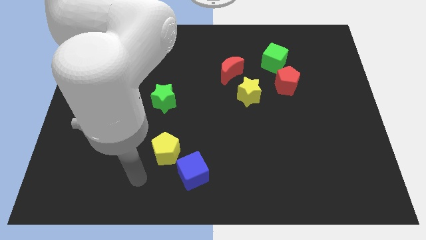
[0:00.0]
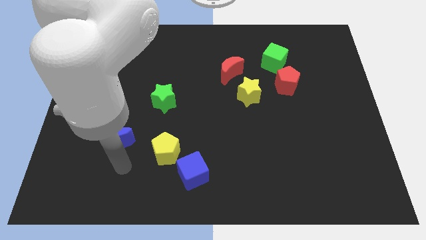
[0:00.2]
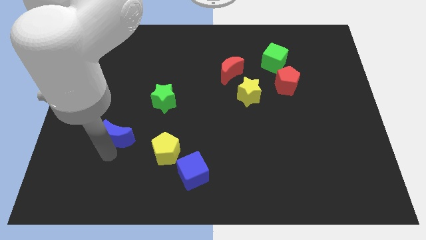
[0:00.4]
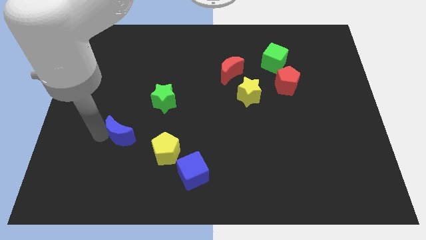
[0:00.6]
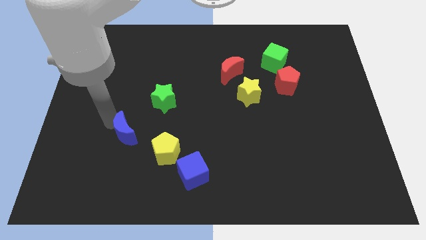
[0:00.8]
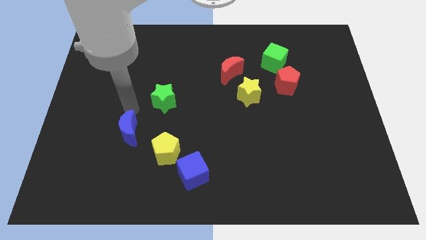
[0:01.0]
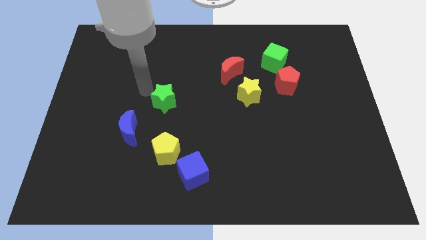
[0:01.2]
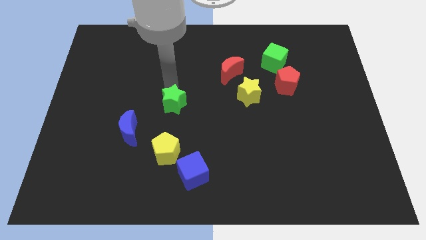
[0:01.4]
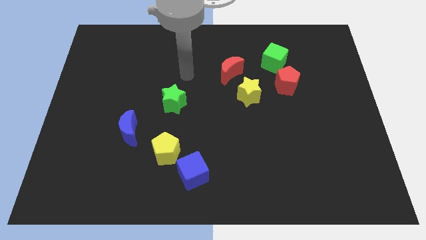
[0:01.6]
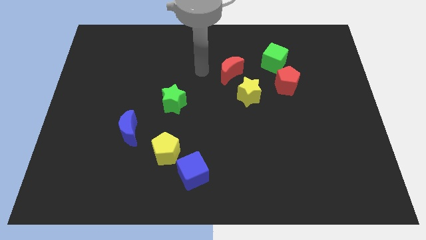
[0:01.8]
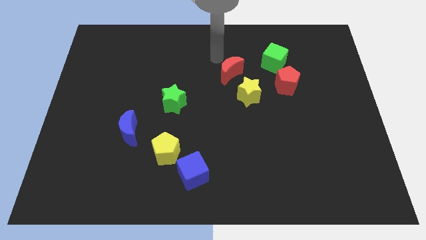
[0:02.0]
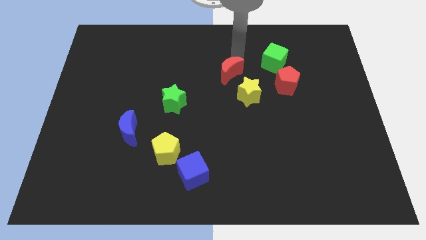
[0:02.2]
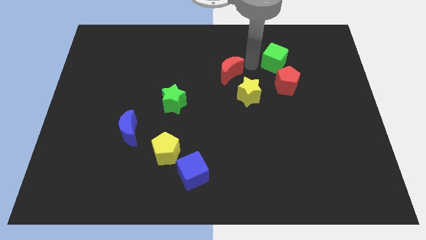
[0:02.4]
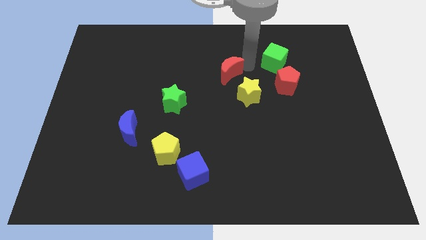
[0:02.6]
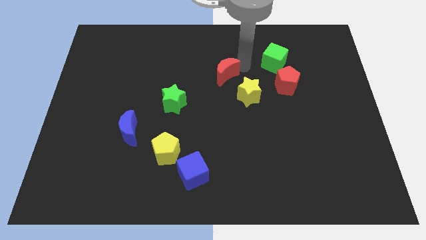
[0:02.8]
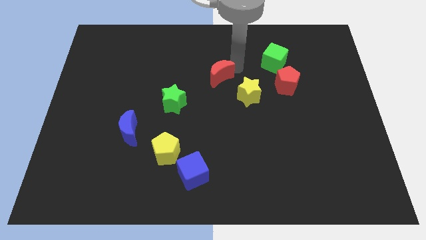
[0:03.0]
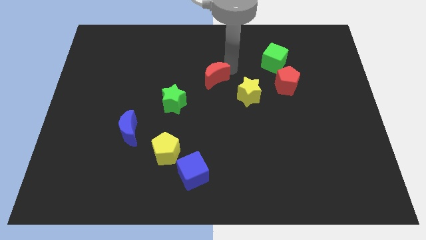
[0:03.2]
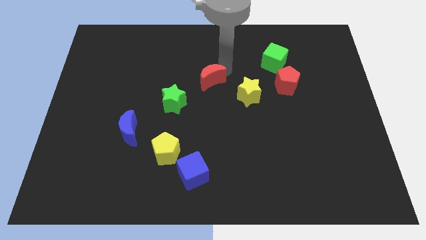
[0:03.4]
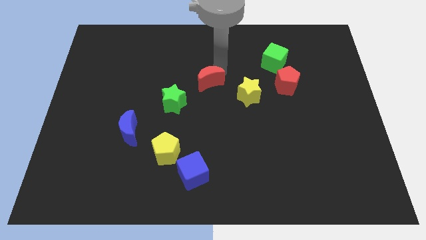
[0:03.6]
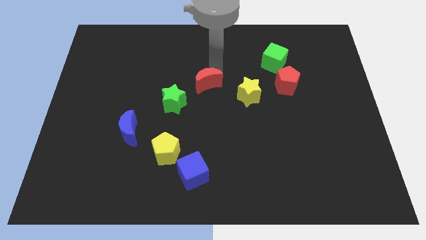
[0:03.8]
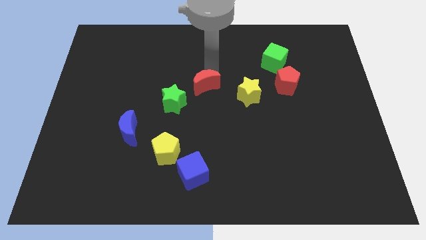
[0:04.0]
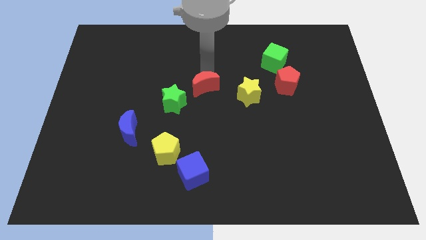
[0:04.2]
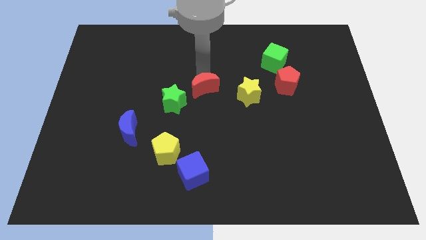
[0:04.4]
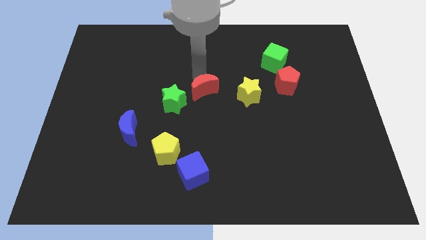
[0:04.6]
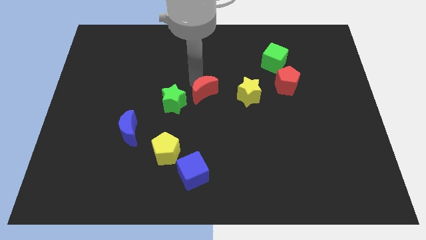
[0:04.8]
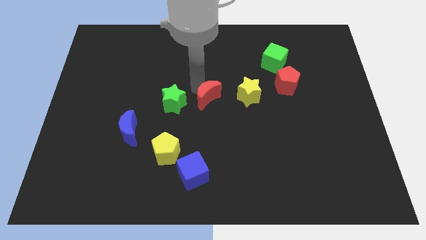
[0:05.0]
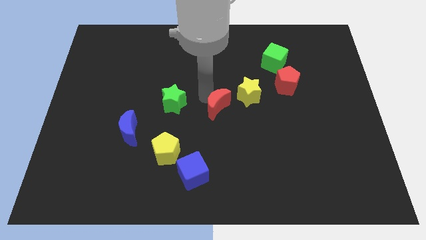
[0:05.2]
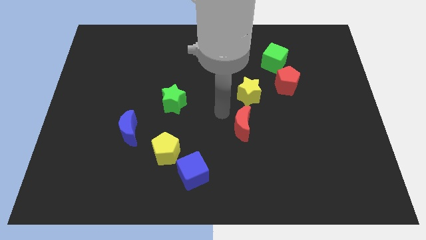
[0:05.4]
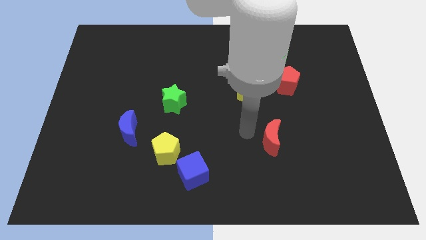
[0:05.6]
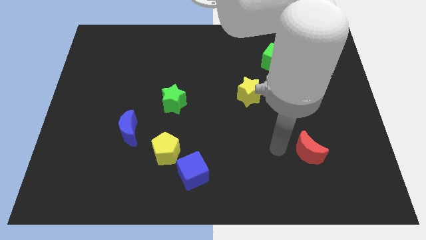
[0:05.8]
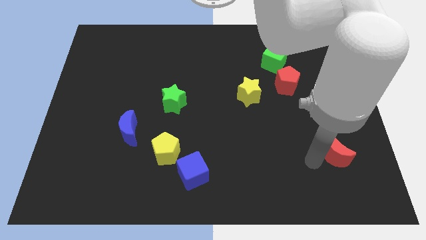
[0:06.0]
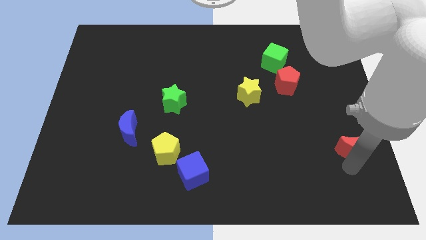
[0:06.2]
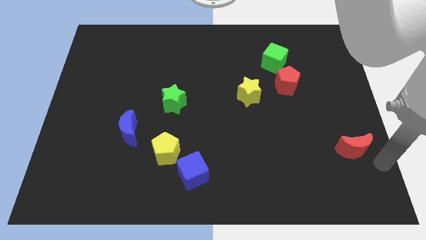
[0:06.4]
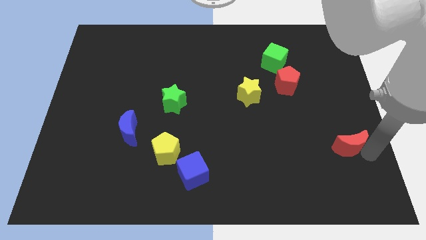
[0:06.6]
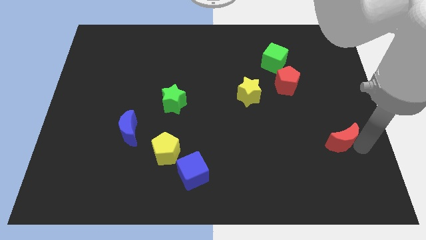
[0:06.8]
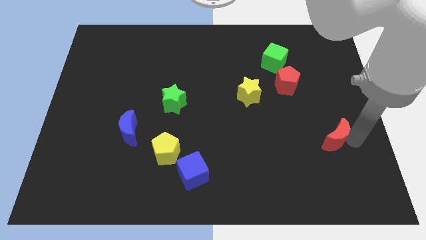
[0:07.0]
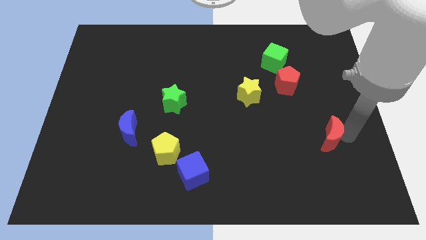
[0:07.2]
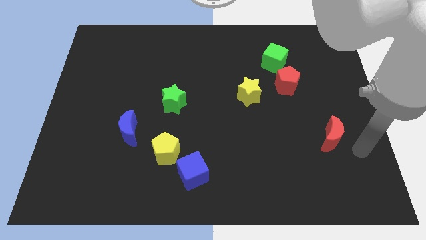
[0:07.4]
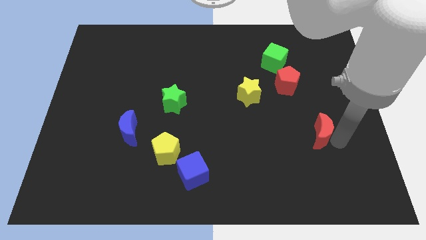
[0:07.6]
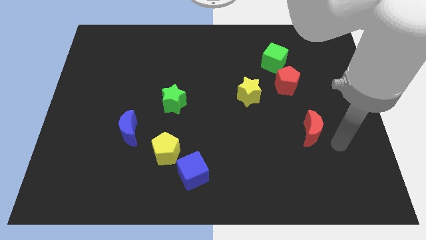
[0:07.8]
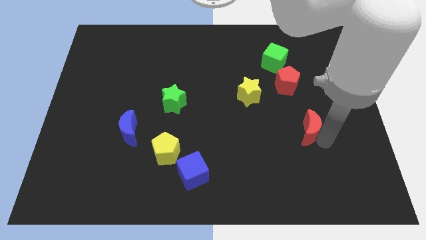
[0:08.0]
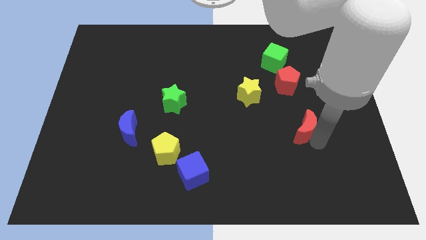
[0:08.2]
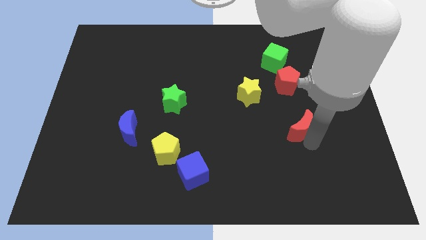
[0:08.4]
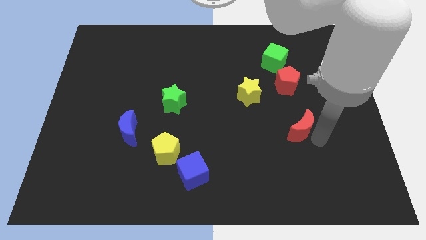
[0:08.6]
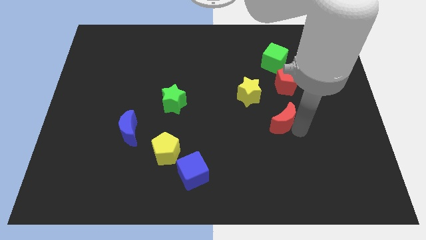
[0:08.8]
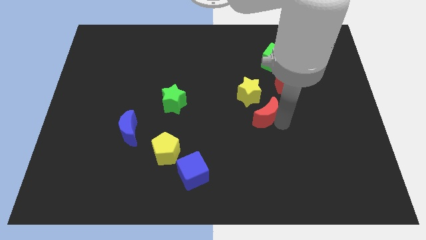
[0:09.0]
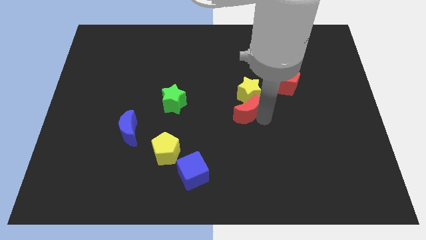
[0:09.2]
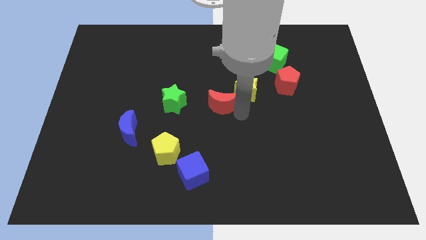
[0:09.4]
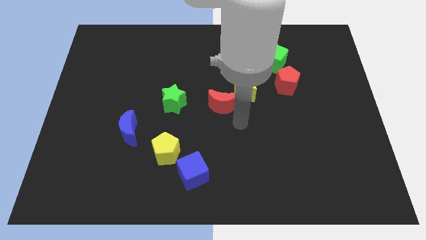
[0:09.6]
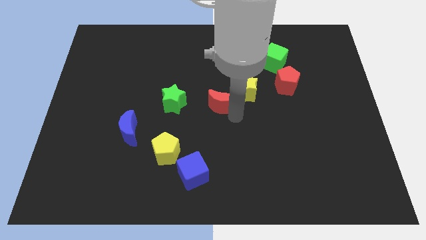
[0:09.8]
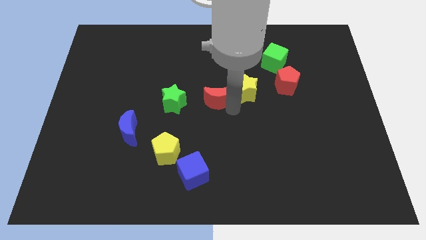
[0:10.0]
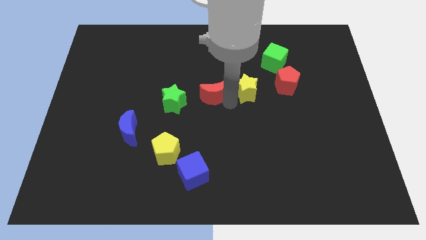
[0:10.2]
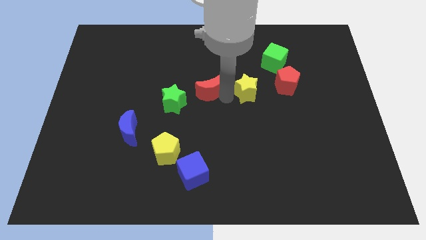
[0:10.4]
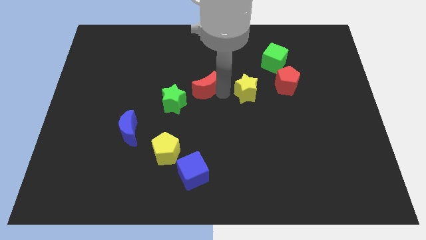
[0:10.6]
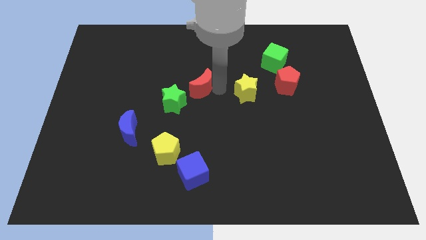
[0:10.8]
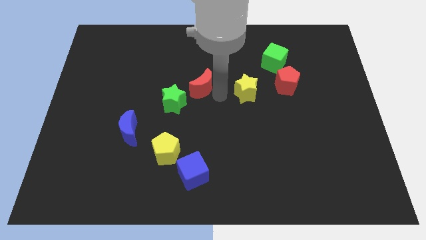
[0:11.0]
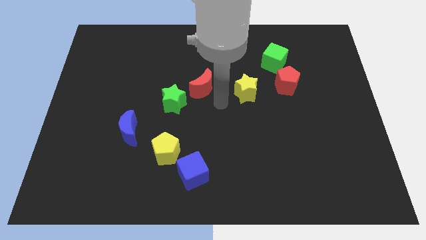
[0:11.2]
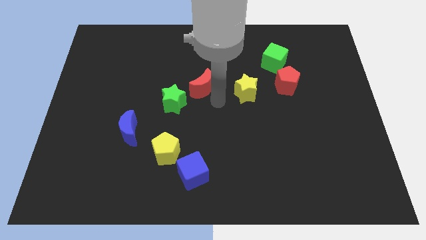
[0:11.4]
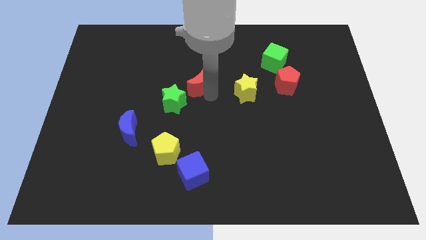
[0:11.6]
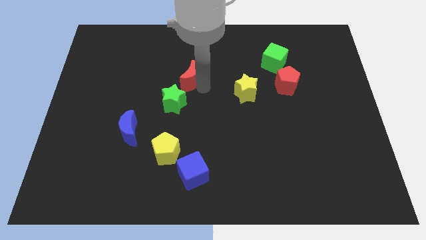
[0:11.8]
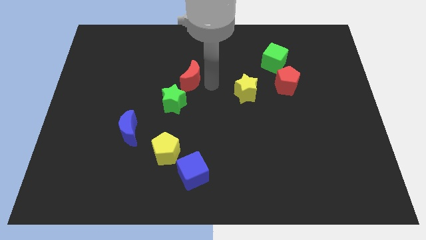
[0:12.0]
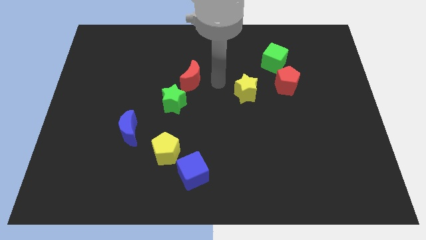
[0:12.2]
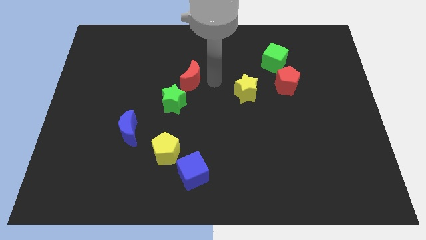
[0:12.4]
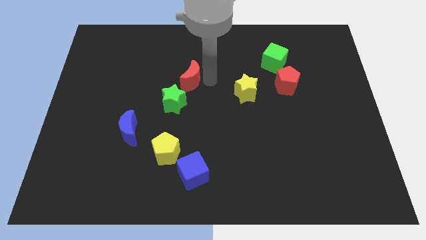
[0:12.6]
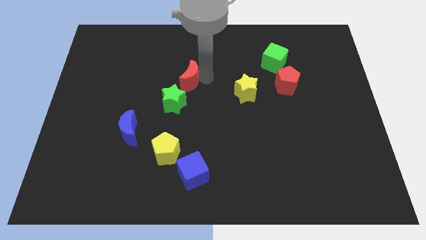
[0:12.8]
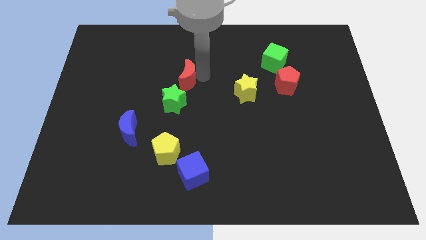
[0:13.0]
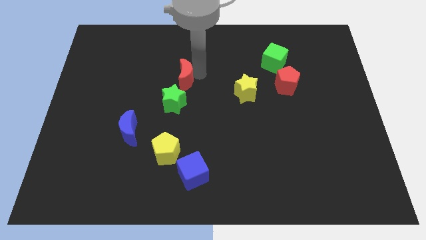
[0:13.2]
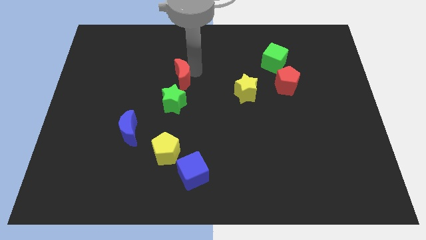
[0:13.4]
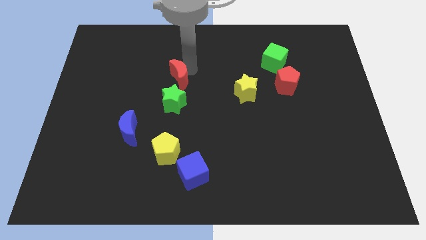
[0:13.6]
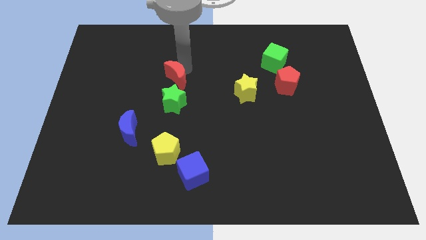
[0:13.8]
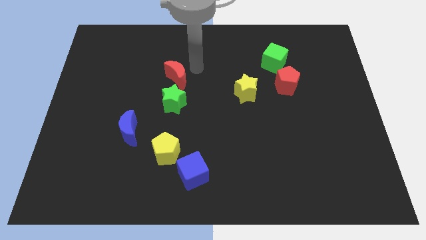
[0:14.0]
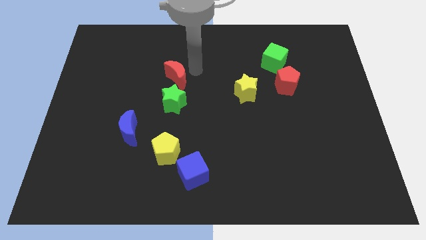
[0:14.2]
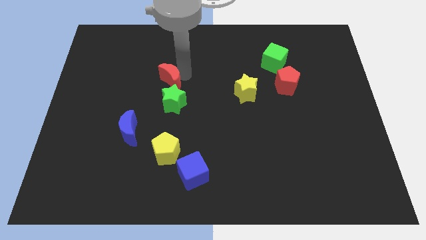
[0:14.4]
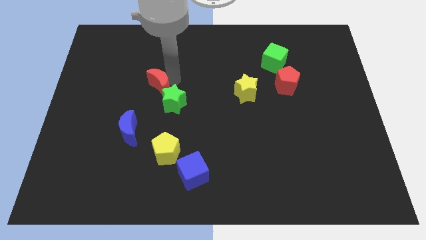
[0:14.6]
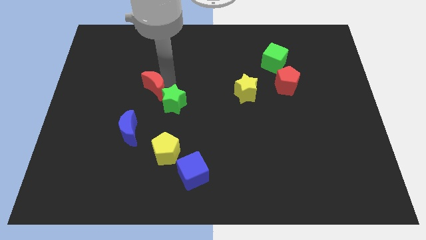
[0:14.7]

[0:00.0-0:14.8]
put the red moon to the top of the blue moon
